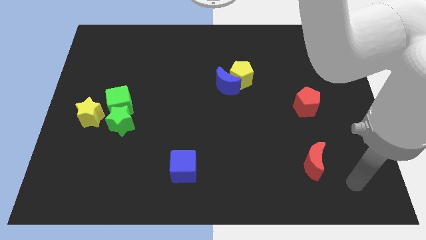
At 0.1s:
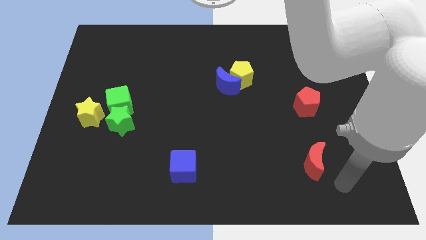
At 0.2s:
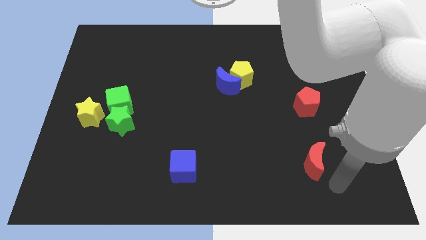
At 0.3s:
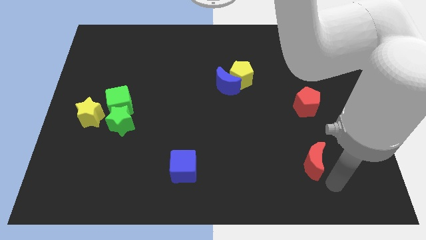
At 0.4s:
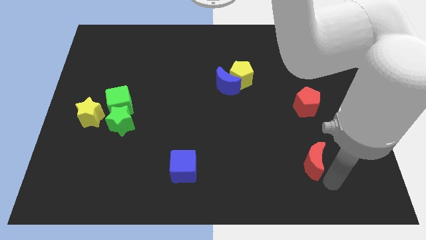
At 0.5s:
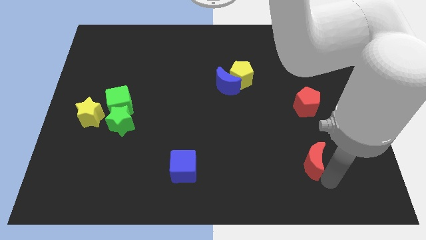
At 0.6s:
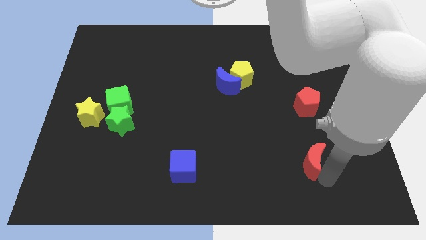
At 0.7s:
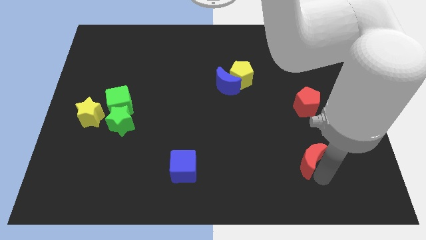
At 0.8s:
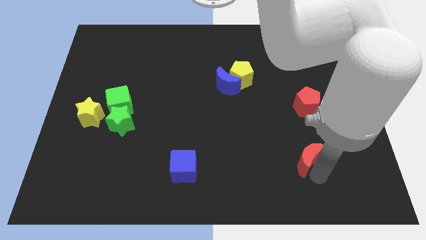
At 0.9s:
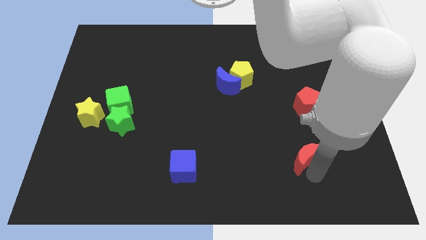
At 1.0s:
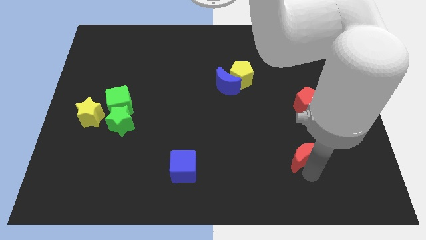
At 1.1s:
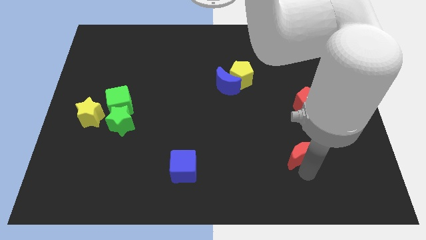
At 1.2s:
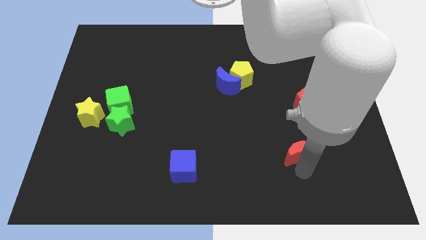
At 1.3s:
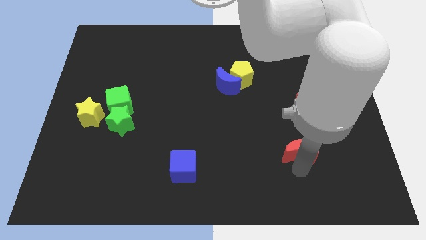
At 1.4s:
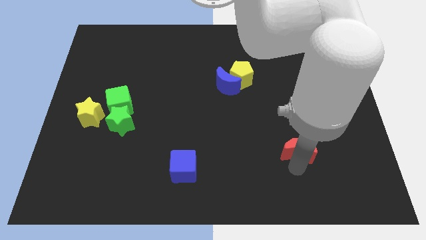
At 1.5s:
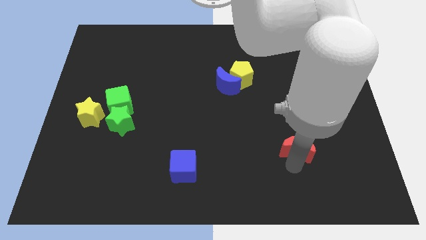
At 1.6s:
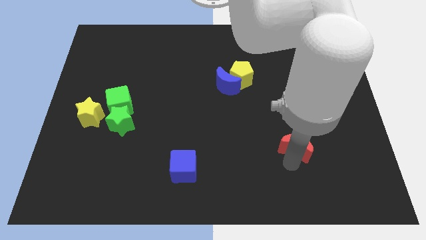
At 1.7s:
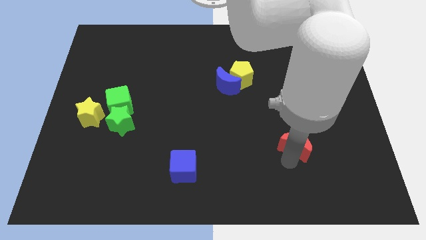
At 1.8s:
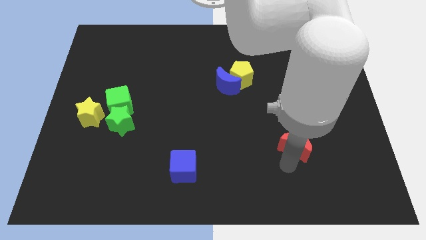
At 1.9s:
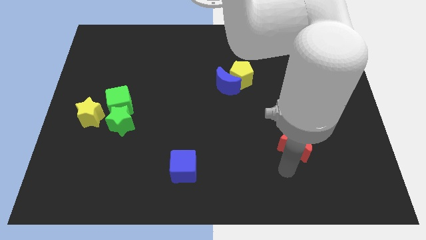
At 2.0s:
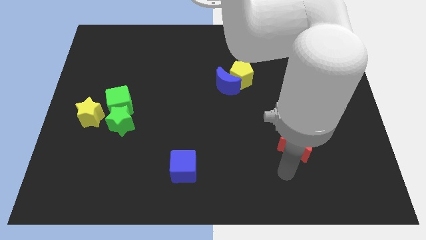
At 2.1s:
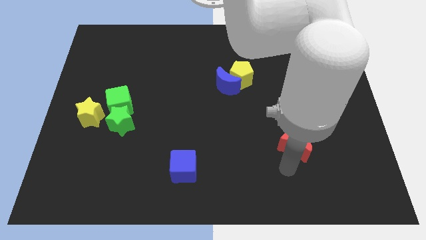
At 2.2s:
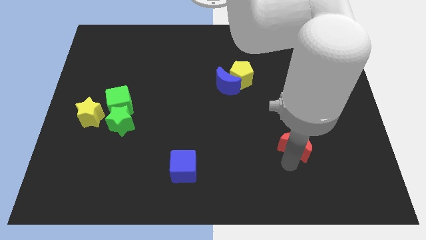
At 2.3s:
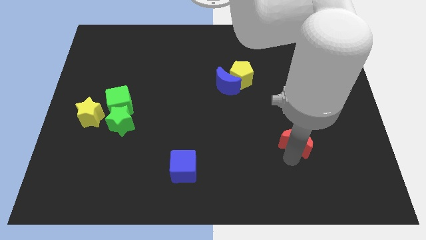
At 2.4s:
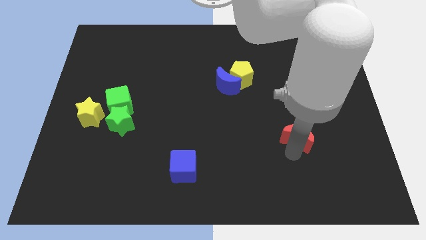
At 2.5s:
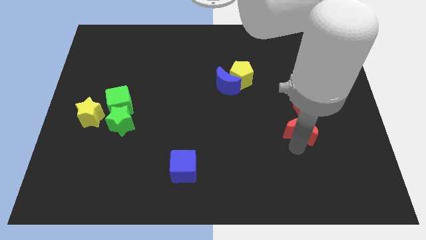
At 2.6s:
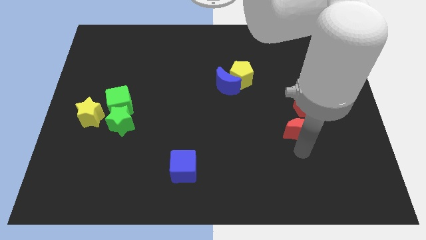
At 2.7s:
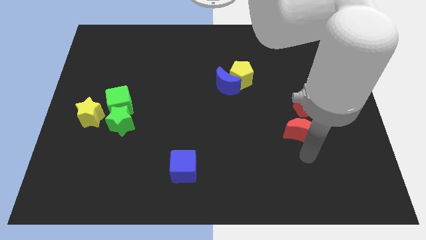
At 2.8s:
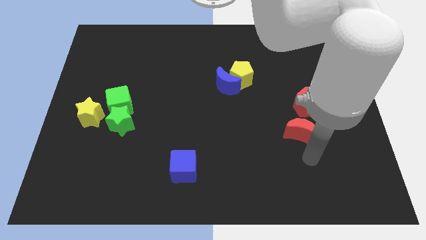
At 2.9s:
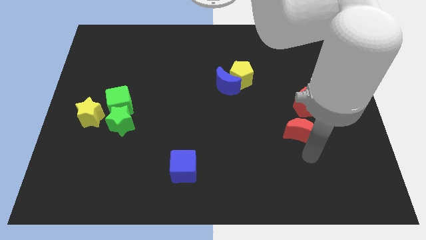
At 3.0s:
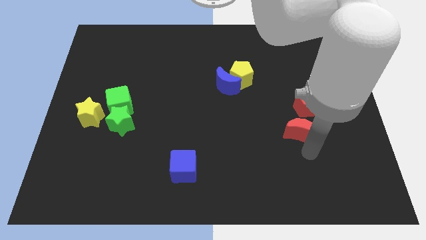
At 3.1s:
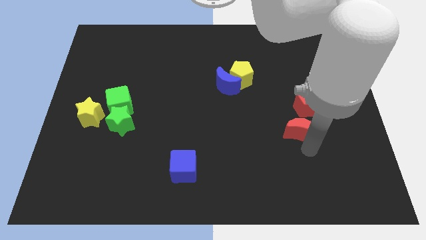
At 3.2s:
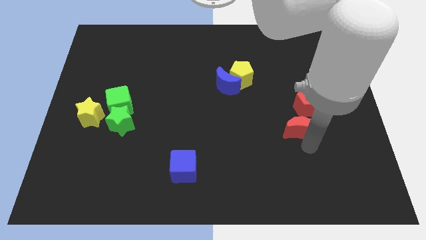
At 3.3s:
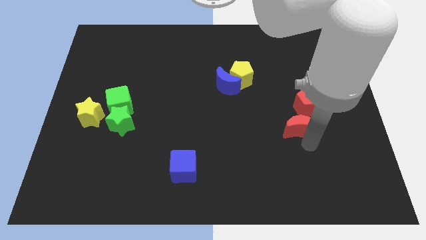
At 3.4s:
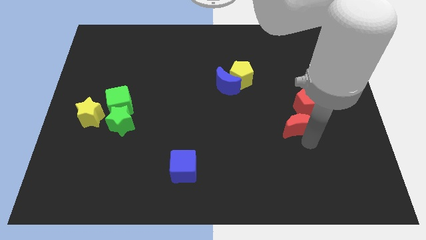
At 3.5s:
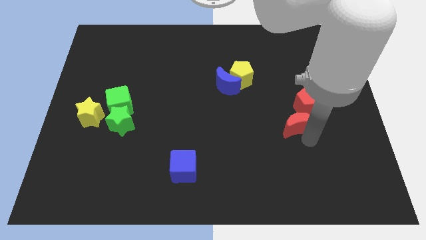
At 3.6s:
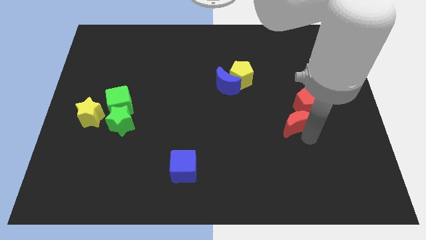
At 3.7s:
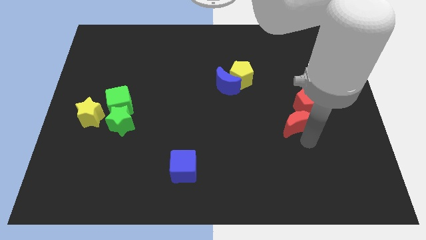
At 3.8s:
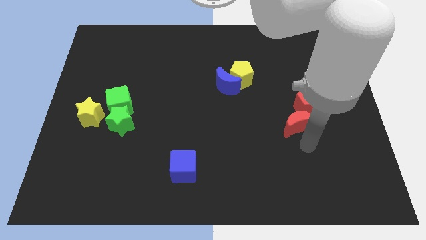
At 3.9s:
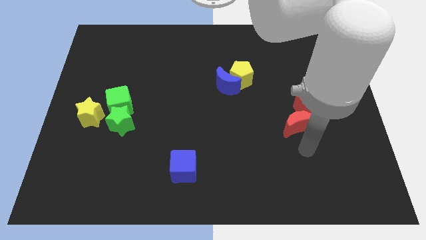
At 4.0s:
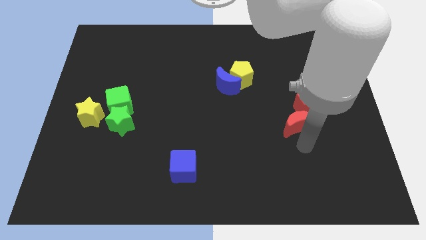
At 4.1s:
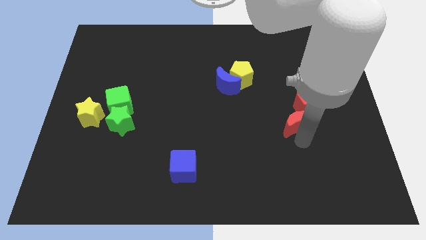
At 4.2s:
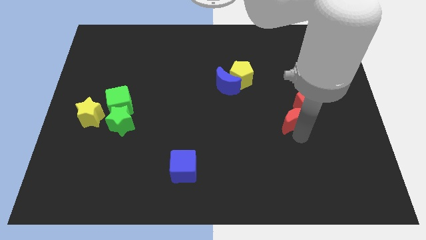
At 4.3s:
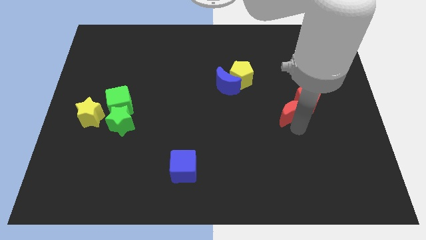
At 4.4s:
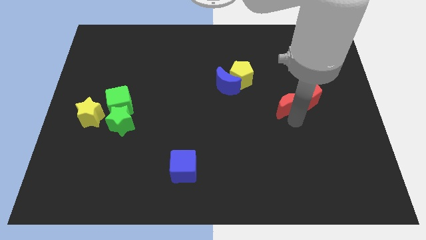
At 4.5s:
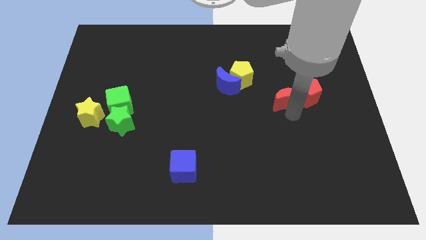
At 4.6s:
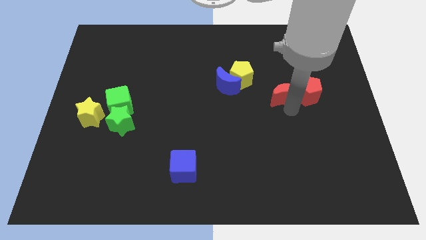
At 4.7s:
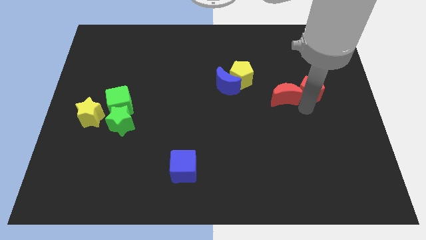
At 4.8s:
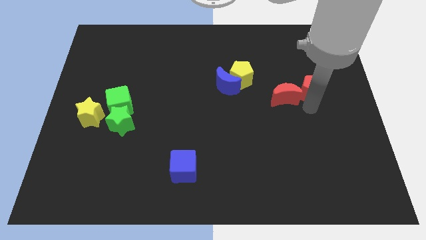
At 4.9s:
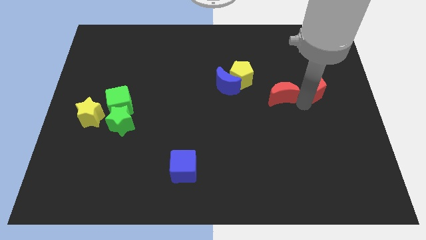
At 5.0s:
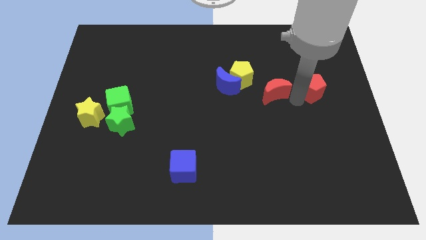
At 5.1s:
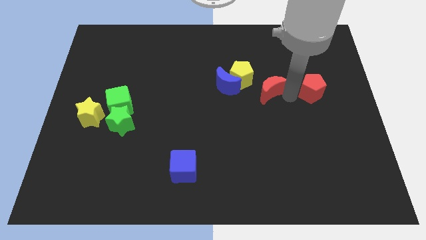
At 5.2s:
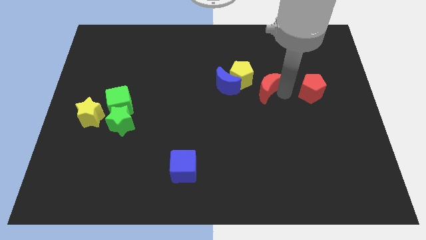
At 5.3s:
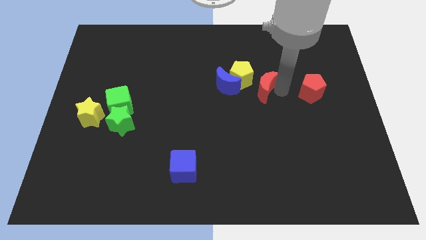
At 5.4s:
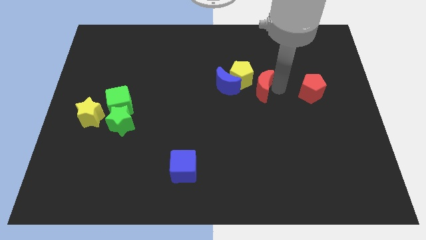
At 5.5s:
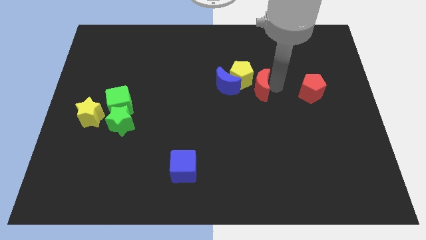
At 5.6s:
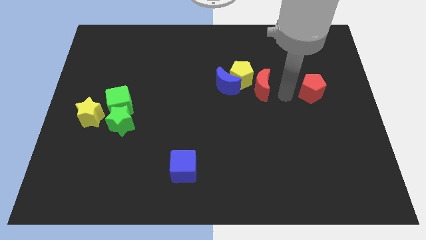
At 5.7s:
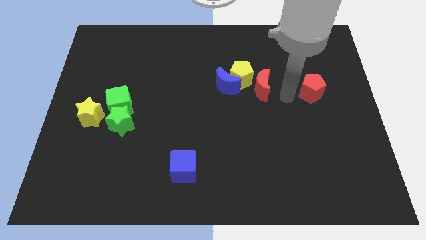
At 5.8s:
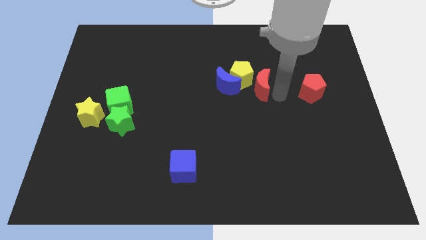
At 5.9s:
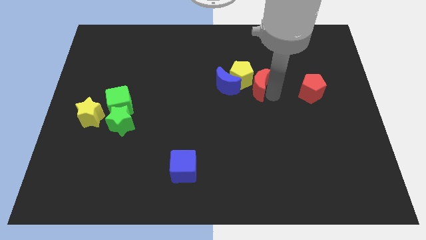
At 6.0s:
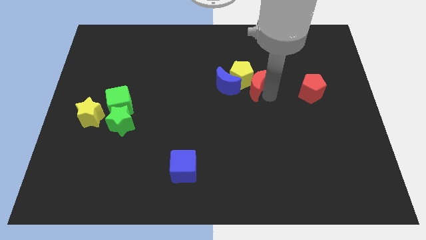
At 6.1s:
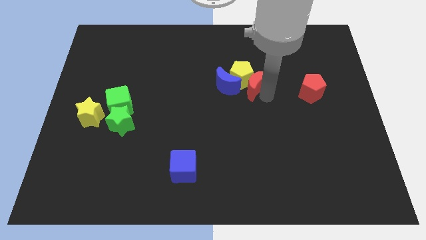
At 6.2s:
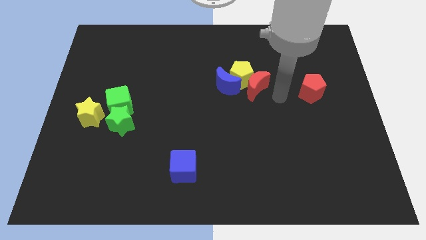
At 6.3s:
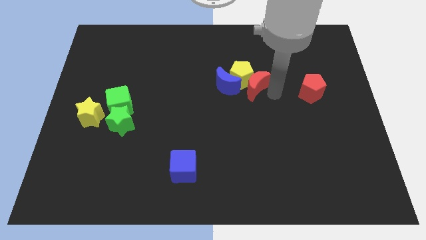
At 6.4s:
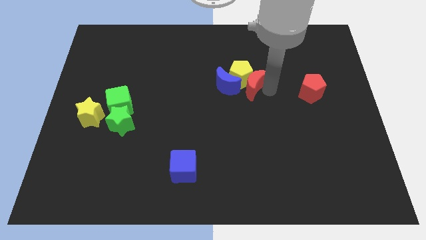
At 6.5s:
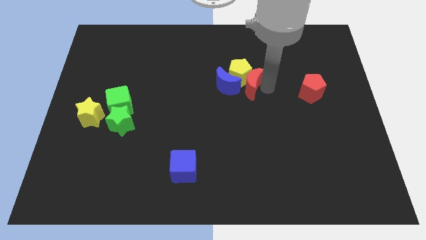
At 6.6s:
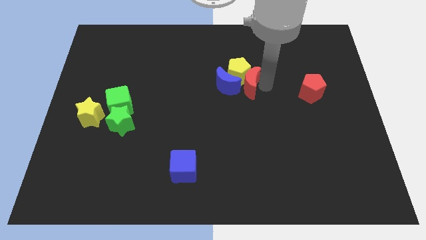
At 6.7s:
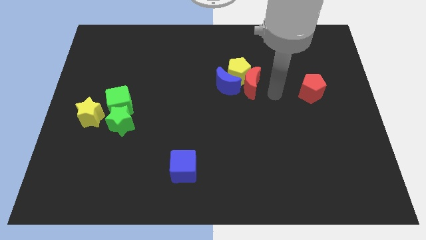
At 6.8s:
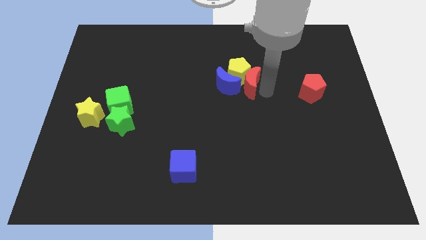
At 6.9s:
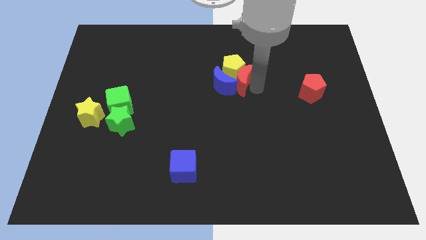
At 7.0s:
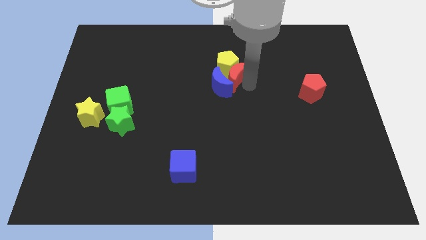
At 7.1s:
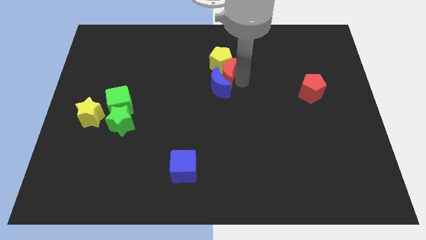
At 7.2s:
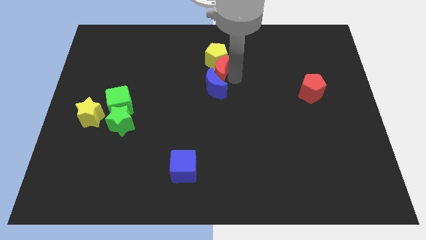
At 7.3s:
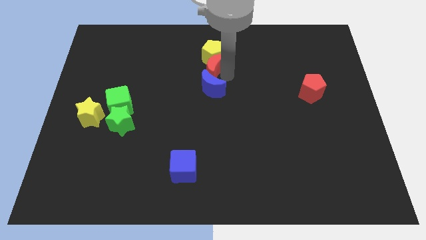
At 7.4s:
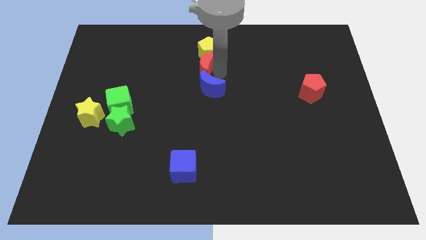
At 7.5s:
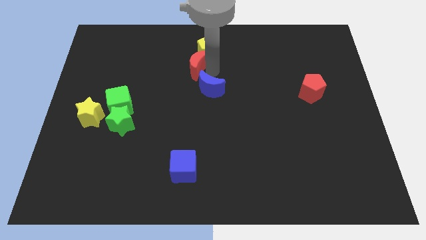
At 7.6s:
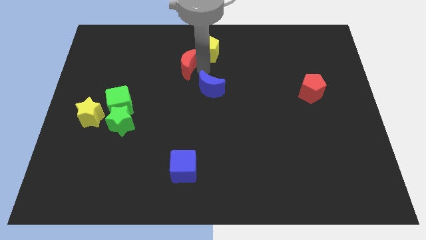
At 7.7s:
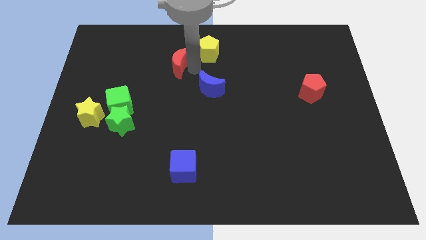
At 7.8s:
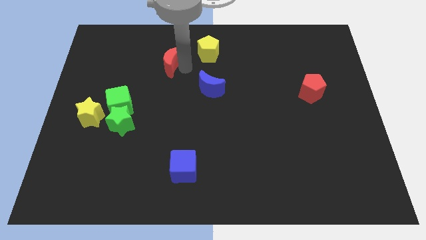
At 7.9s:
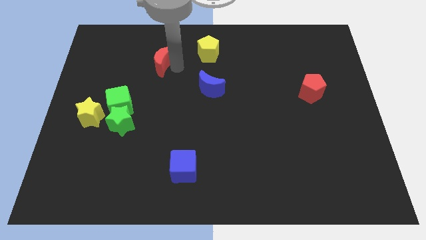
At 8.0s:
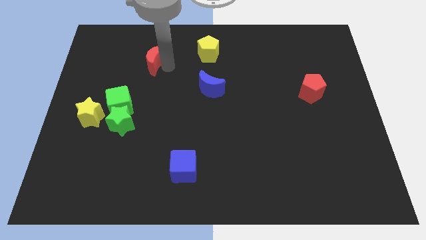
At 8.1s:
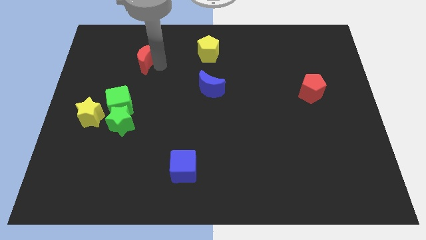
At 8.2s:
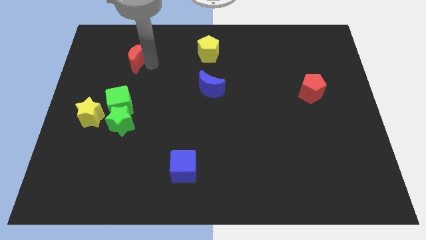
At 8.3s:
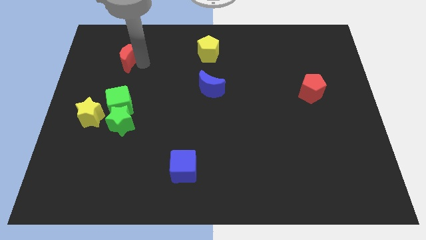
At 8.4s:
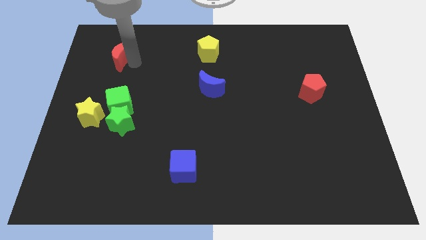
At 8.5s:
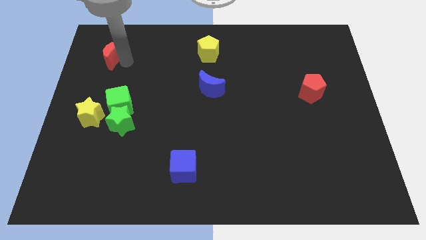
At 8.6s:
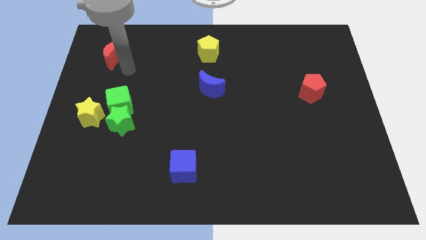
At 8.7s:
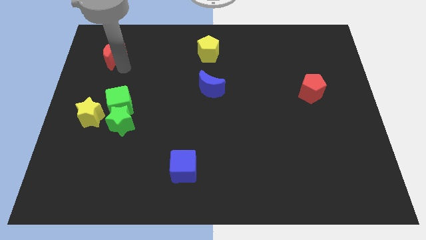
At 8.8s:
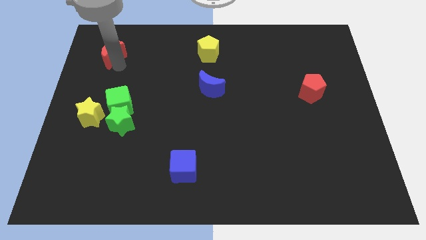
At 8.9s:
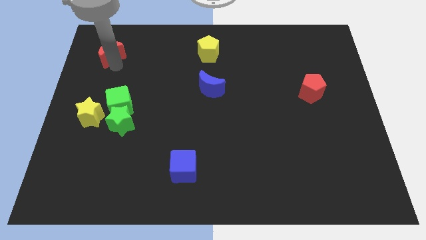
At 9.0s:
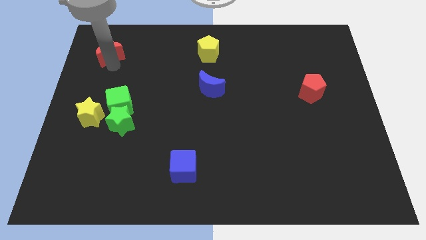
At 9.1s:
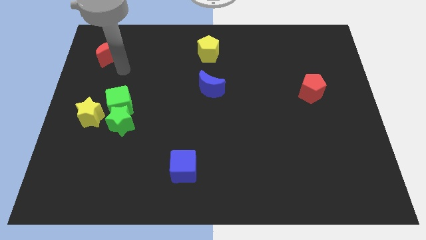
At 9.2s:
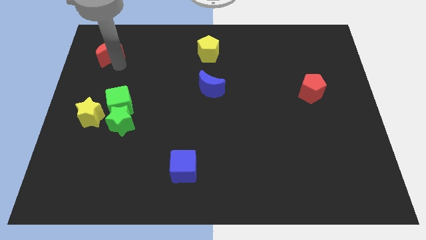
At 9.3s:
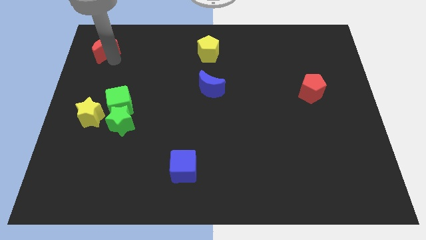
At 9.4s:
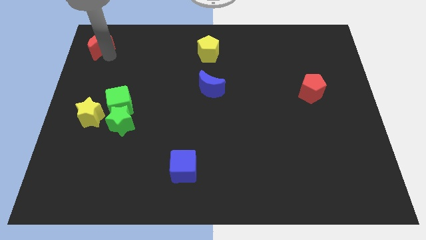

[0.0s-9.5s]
put the red moon to the top left corner
